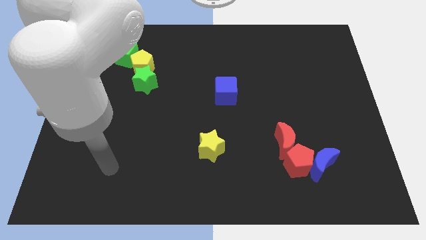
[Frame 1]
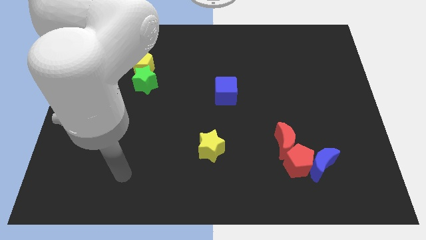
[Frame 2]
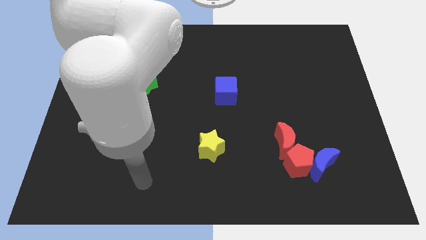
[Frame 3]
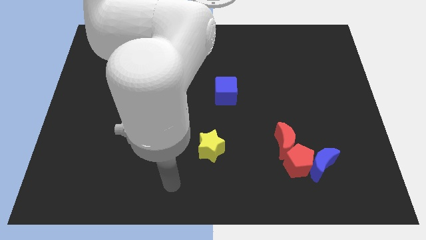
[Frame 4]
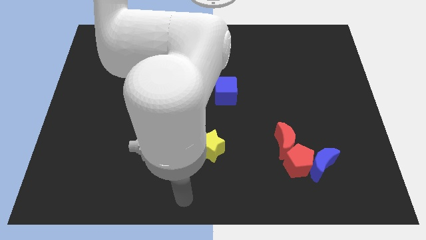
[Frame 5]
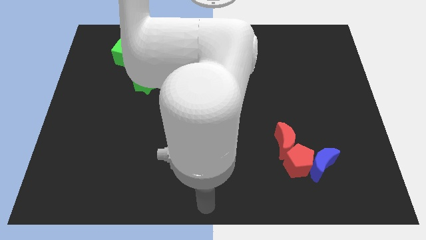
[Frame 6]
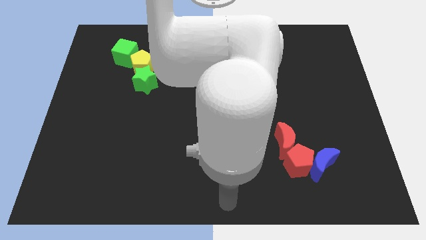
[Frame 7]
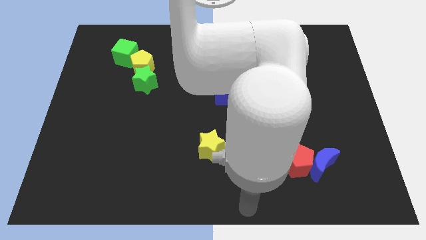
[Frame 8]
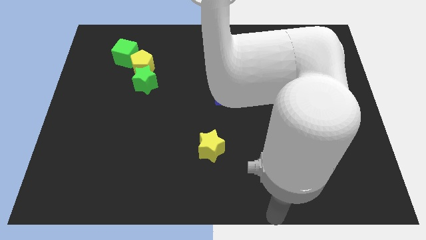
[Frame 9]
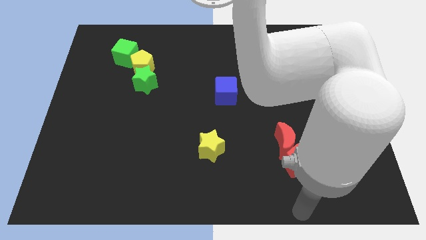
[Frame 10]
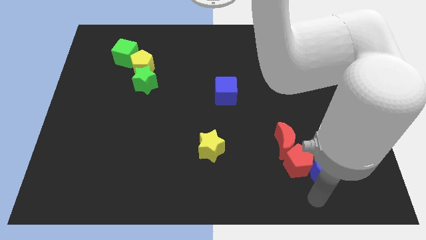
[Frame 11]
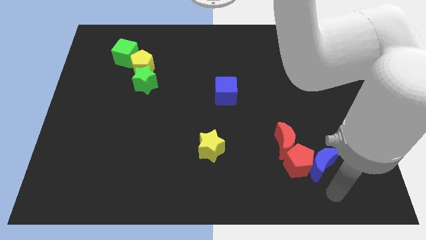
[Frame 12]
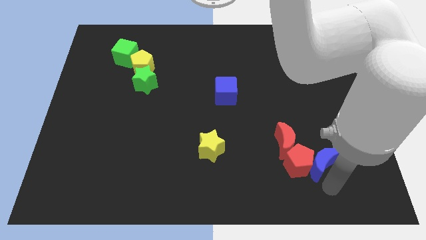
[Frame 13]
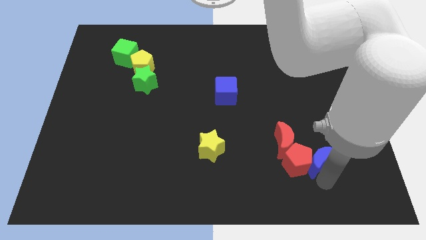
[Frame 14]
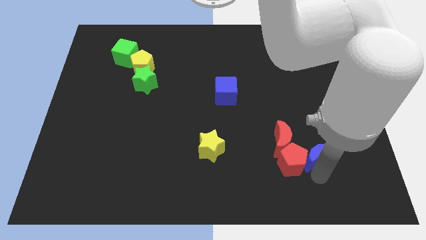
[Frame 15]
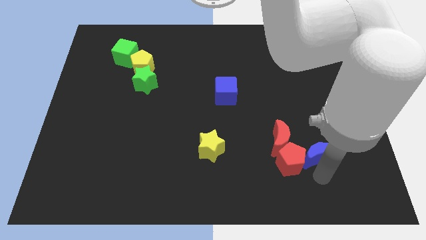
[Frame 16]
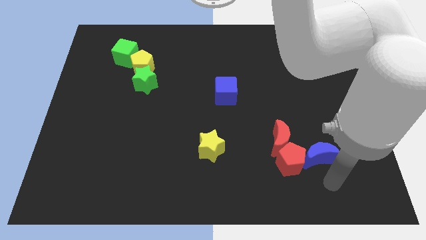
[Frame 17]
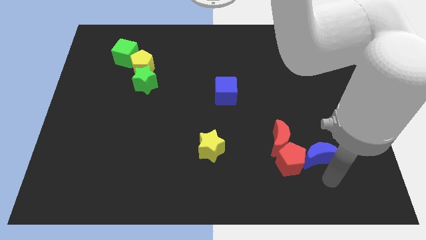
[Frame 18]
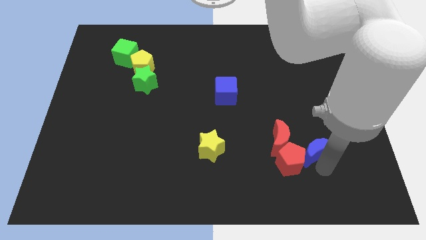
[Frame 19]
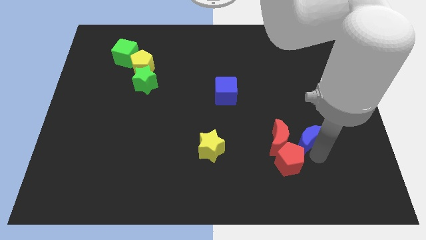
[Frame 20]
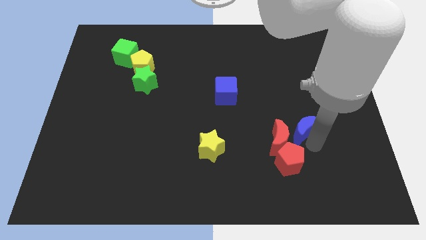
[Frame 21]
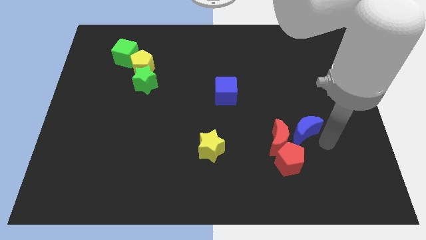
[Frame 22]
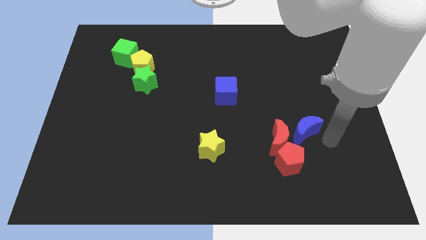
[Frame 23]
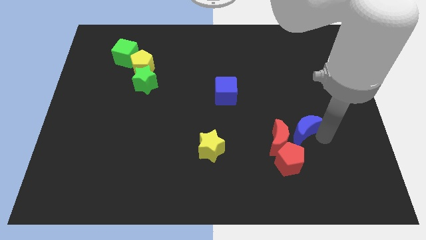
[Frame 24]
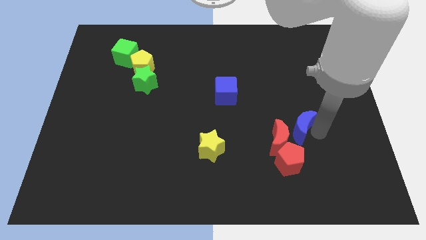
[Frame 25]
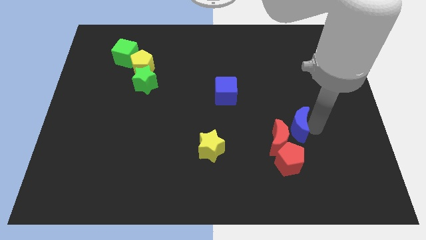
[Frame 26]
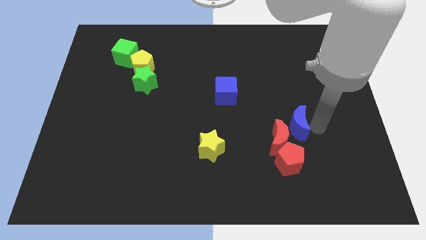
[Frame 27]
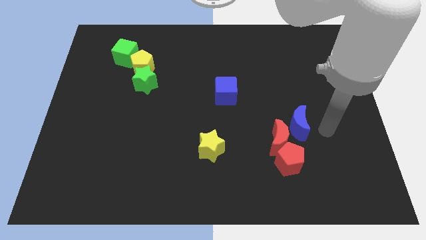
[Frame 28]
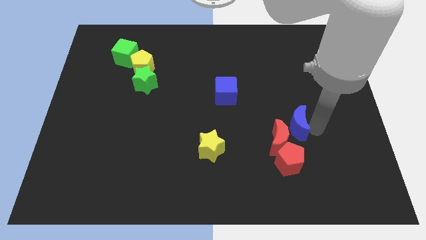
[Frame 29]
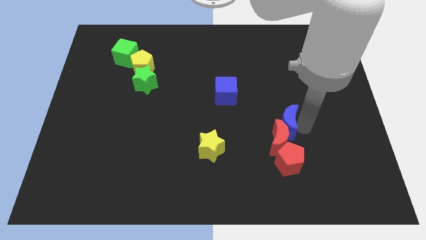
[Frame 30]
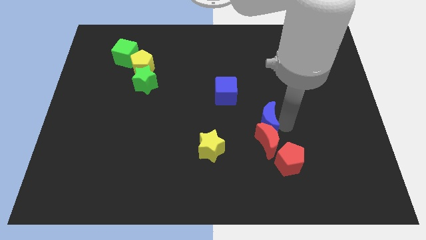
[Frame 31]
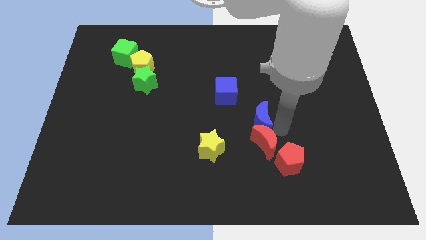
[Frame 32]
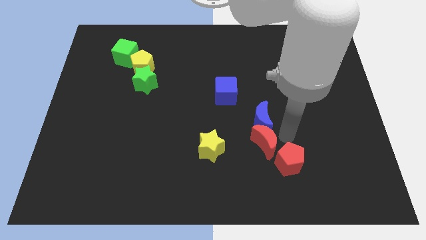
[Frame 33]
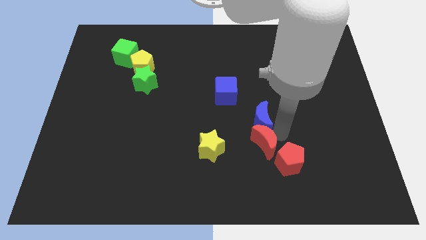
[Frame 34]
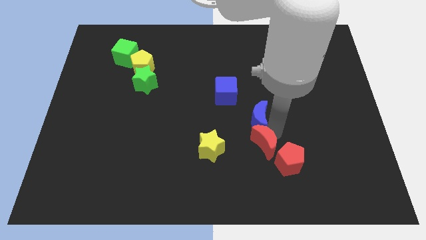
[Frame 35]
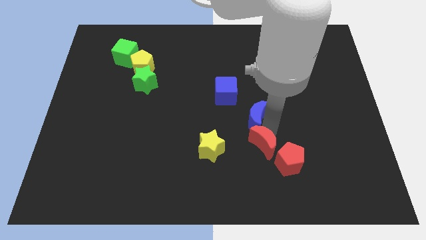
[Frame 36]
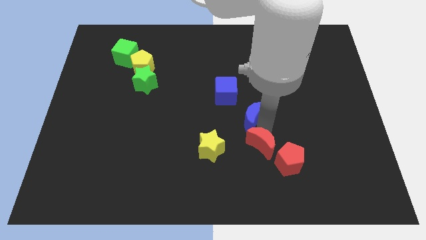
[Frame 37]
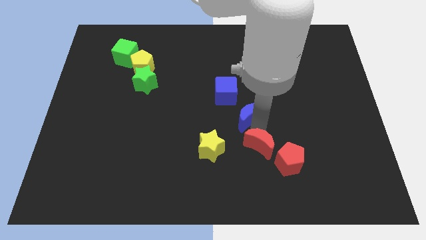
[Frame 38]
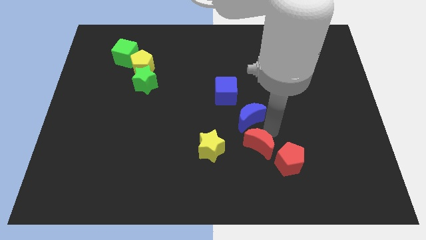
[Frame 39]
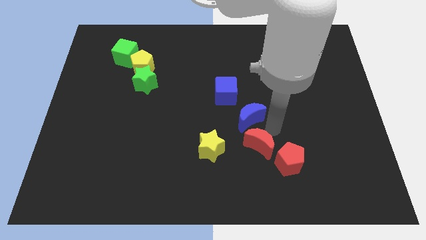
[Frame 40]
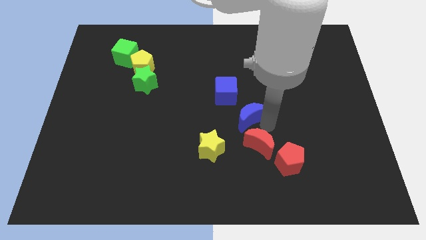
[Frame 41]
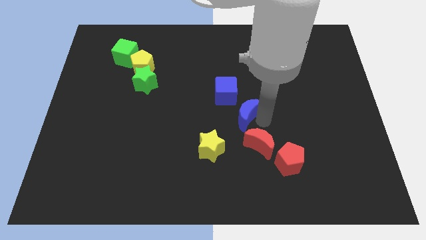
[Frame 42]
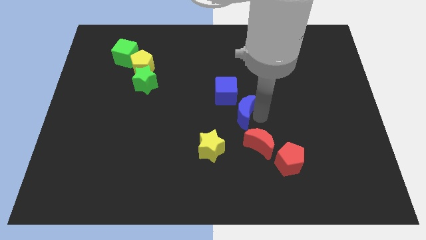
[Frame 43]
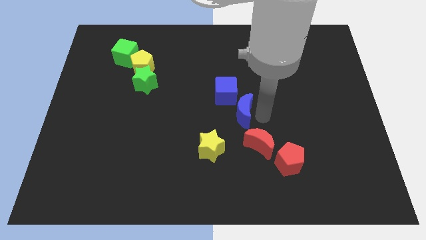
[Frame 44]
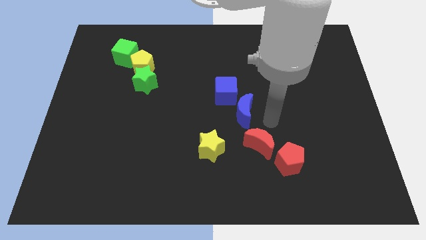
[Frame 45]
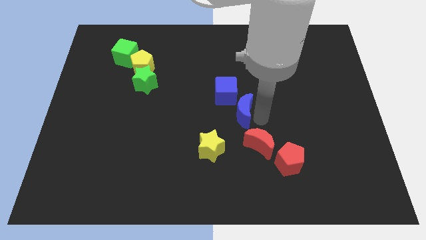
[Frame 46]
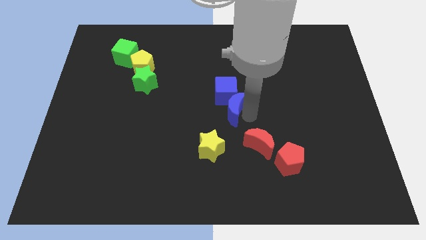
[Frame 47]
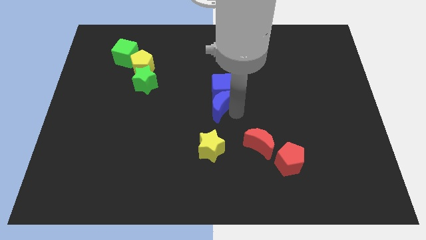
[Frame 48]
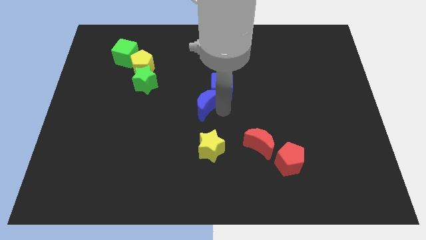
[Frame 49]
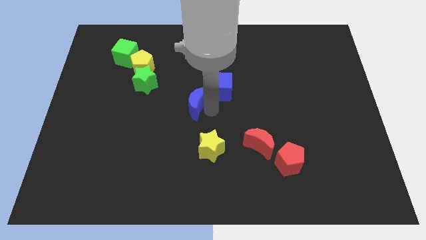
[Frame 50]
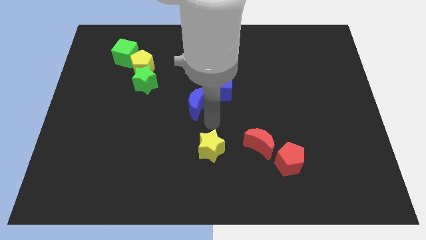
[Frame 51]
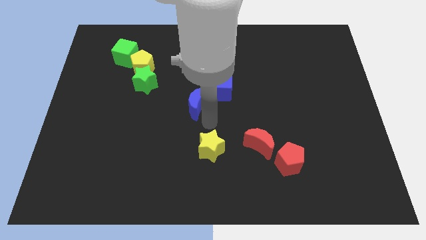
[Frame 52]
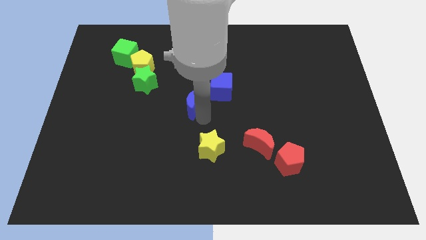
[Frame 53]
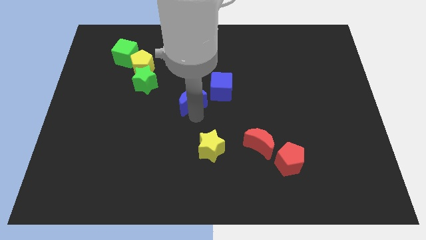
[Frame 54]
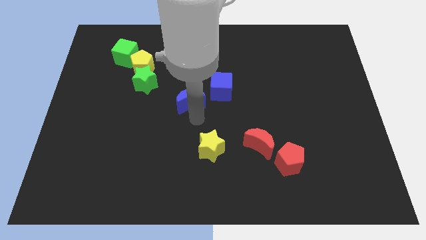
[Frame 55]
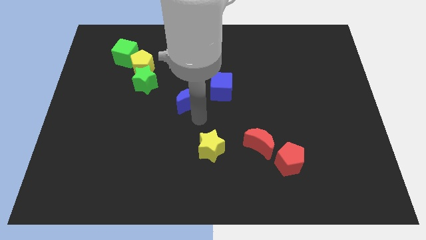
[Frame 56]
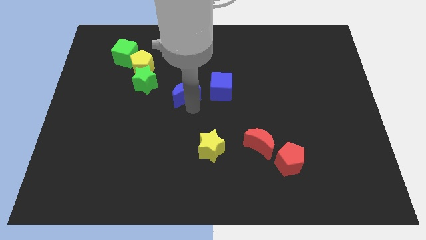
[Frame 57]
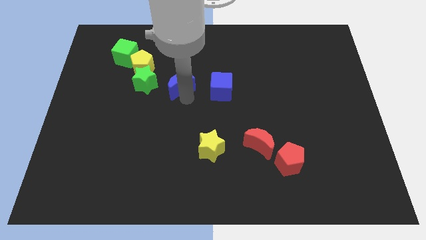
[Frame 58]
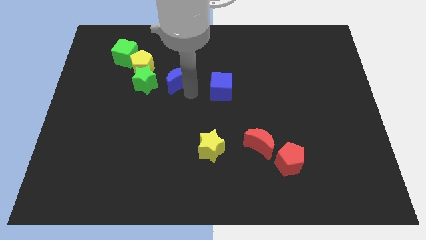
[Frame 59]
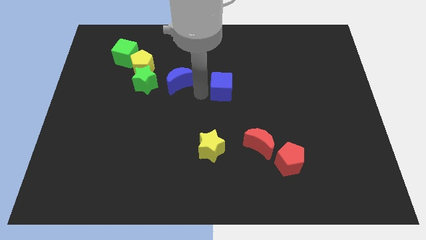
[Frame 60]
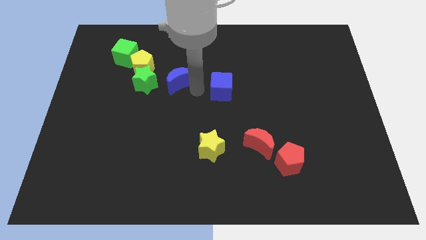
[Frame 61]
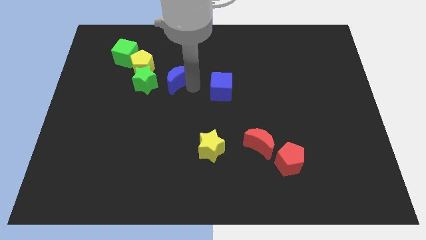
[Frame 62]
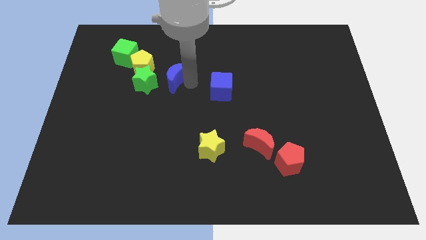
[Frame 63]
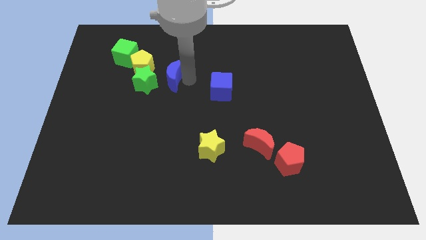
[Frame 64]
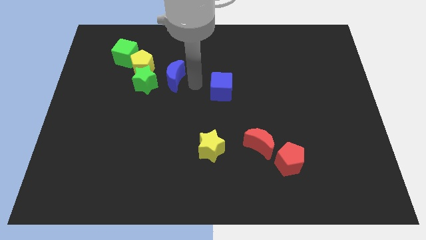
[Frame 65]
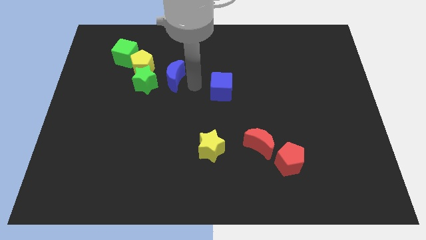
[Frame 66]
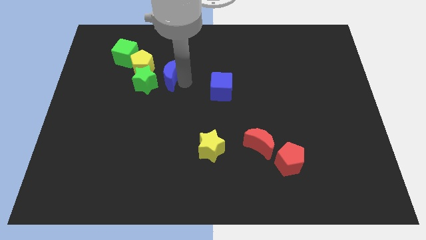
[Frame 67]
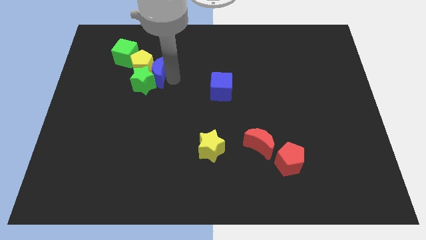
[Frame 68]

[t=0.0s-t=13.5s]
put the blue moon to the yellow pentagon

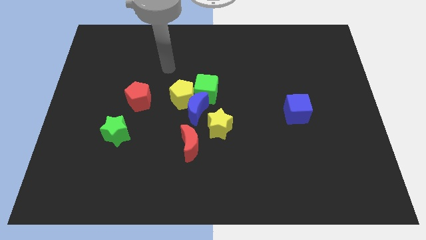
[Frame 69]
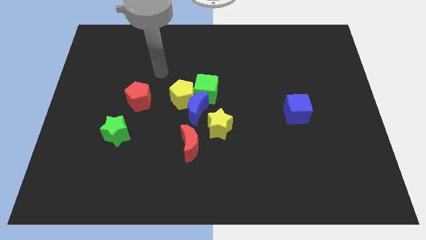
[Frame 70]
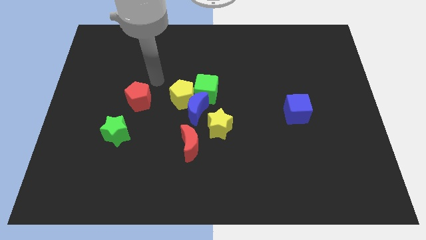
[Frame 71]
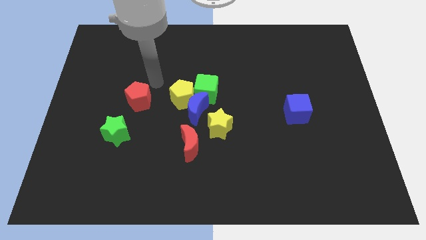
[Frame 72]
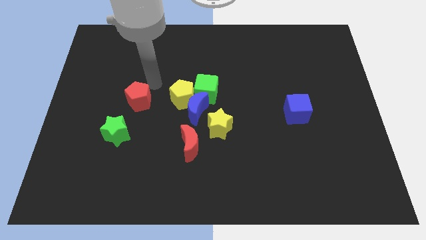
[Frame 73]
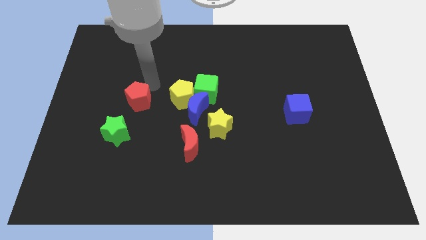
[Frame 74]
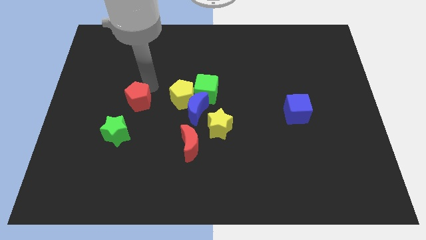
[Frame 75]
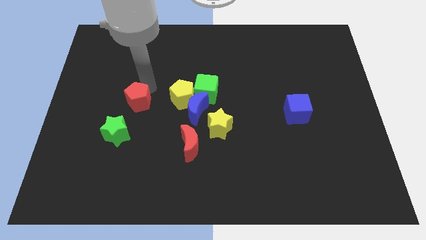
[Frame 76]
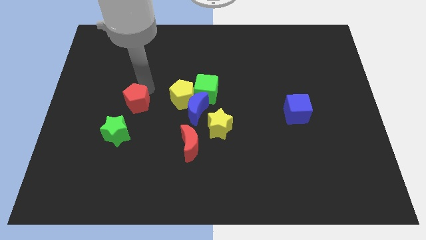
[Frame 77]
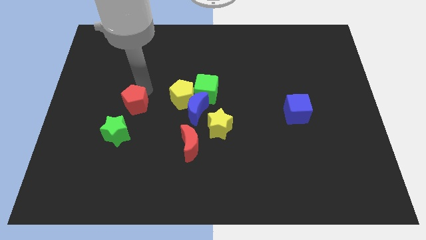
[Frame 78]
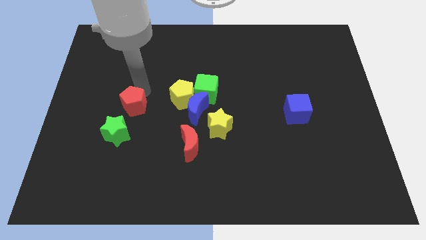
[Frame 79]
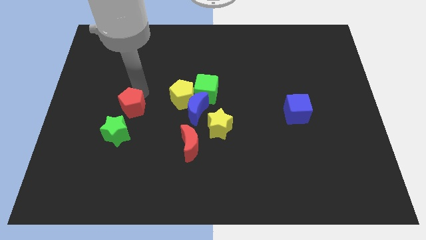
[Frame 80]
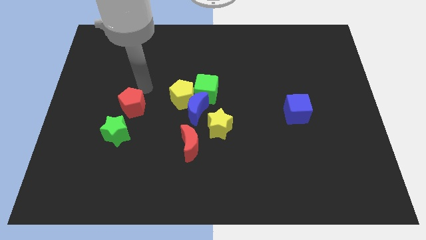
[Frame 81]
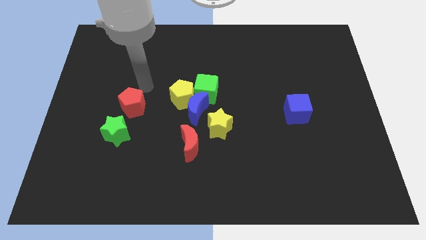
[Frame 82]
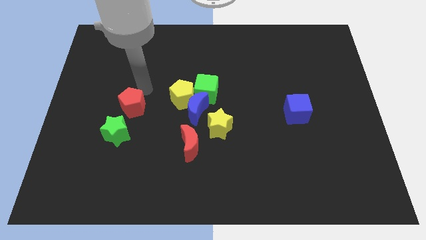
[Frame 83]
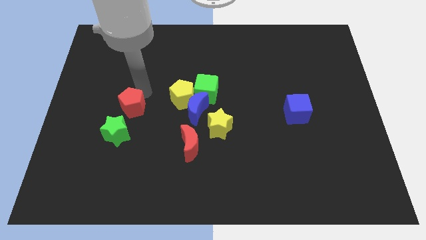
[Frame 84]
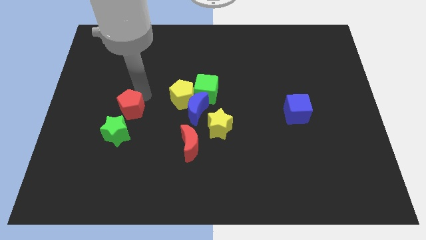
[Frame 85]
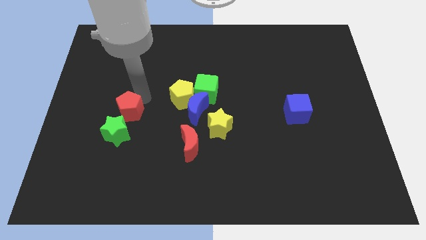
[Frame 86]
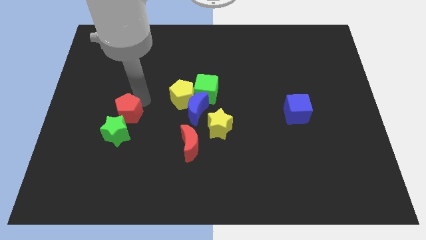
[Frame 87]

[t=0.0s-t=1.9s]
put the red pentagon to the green star
